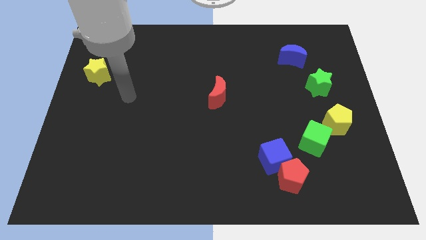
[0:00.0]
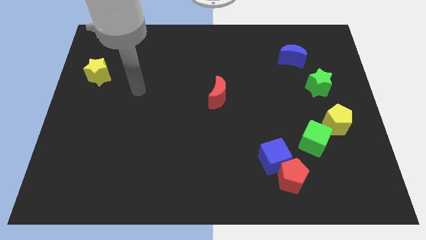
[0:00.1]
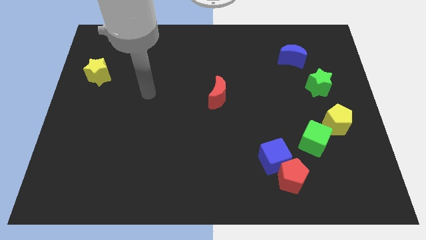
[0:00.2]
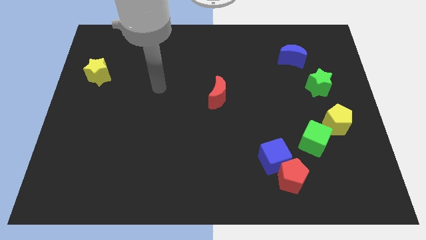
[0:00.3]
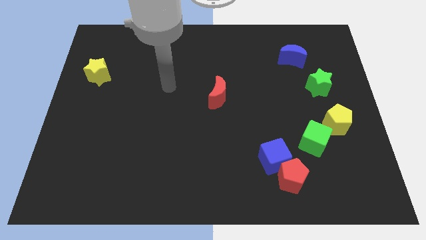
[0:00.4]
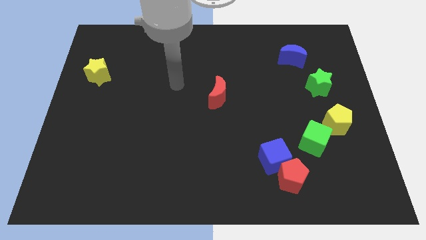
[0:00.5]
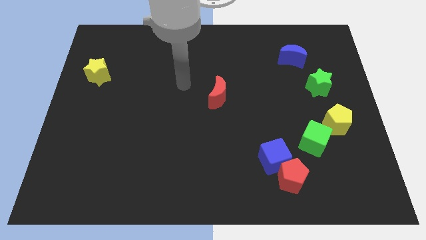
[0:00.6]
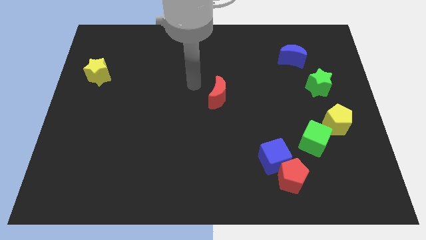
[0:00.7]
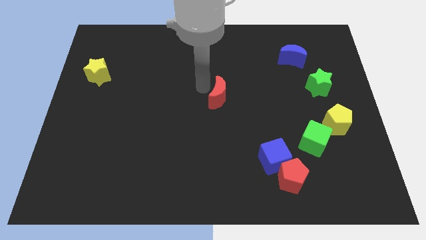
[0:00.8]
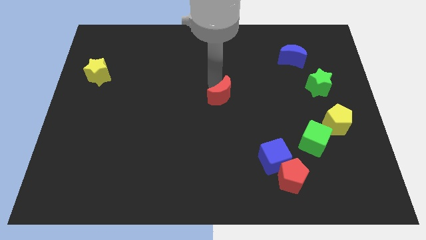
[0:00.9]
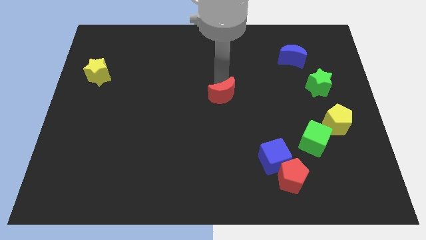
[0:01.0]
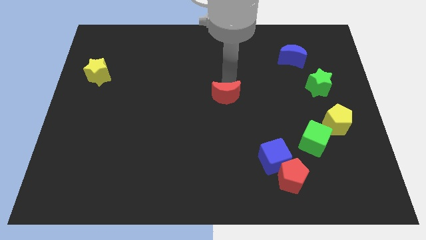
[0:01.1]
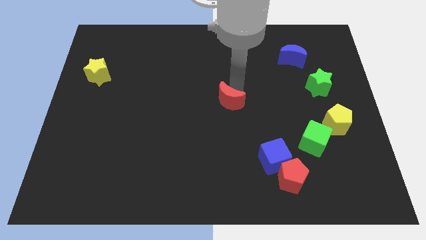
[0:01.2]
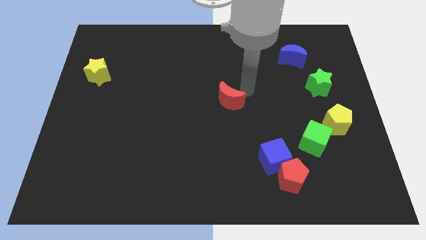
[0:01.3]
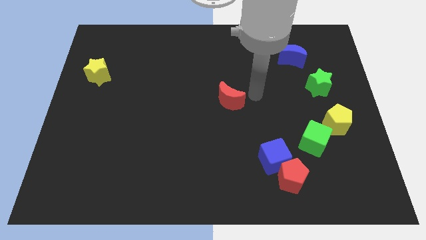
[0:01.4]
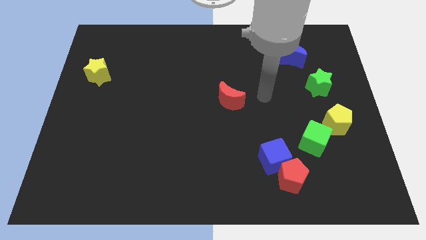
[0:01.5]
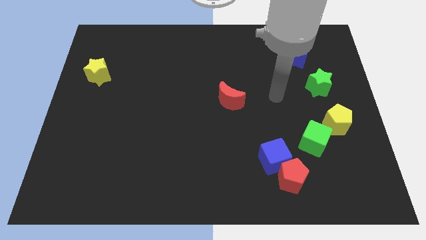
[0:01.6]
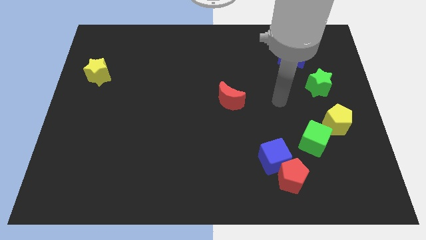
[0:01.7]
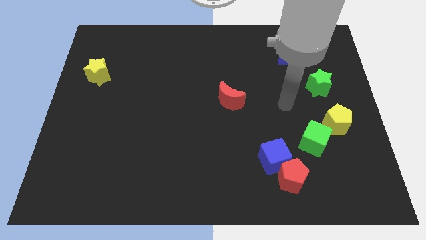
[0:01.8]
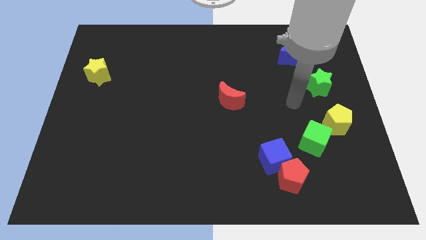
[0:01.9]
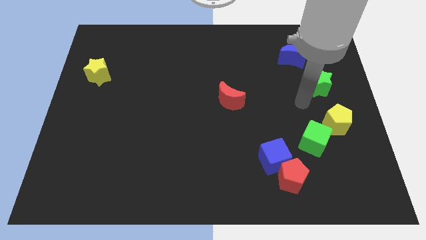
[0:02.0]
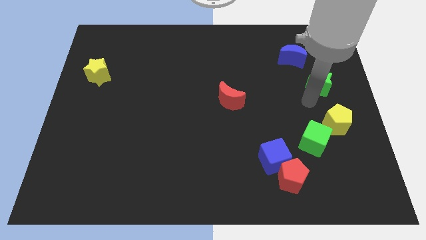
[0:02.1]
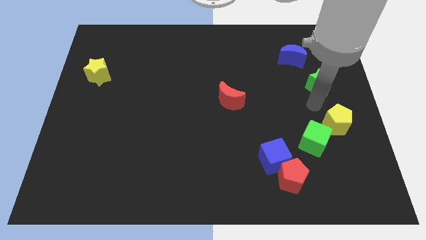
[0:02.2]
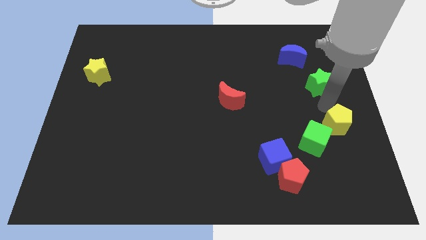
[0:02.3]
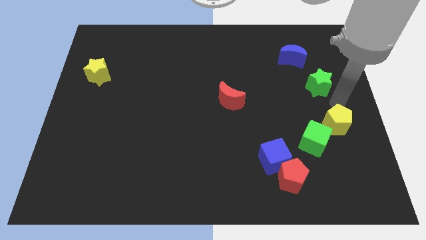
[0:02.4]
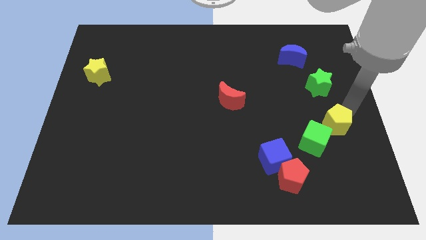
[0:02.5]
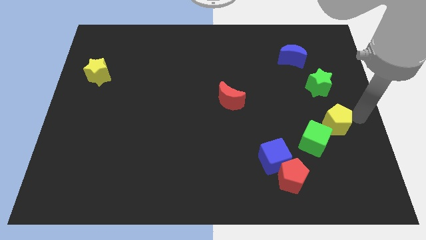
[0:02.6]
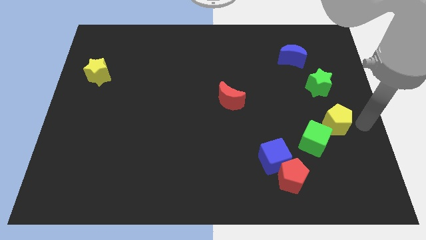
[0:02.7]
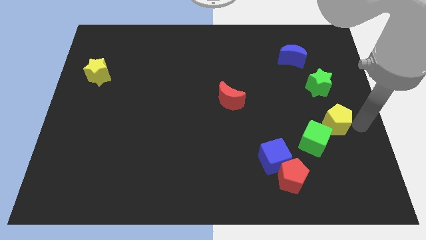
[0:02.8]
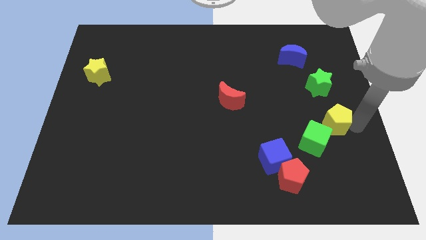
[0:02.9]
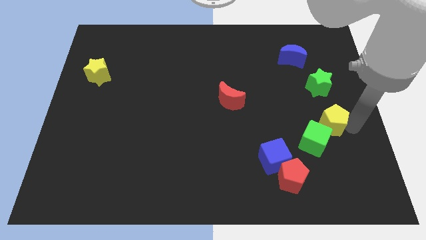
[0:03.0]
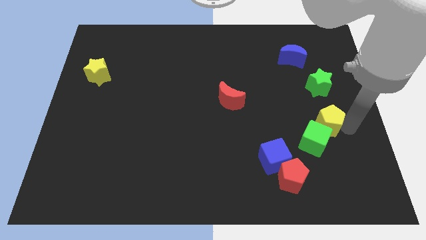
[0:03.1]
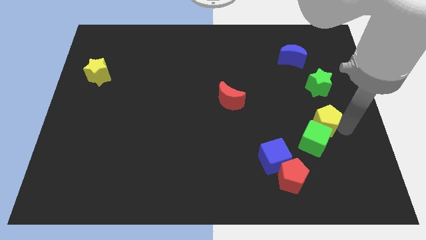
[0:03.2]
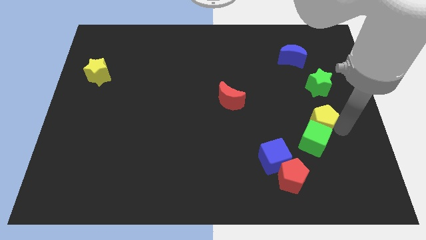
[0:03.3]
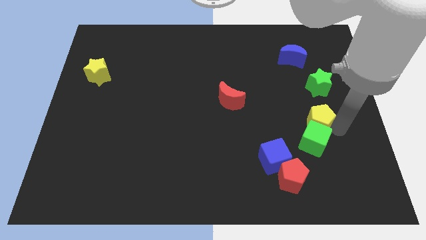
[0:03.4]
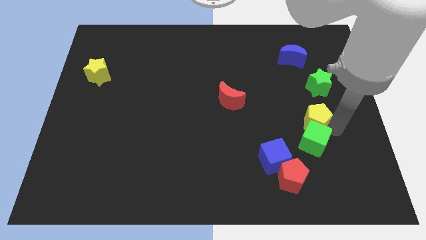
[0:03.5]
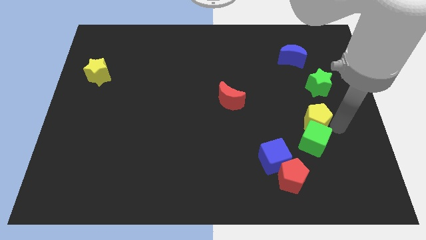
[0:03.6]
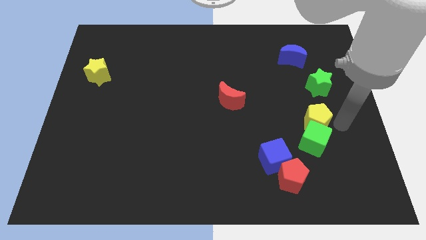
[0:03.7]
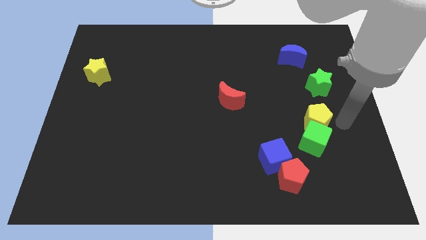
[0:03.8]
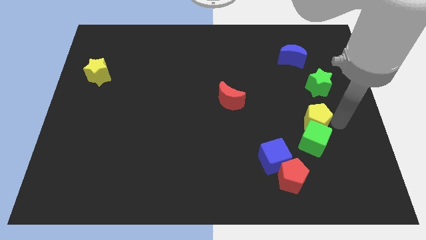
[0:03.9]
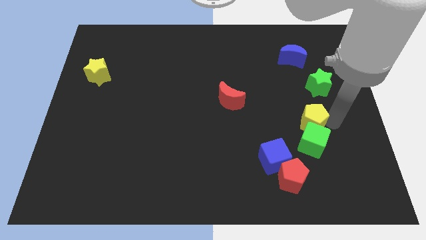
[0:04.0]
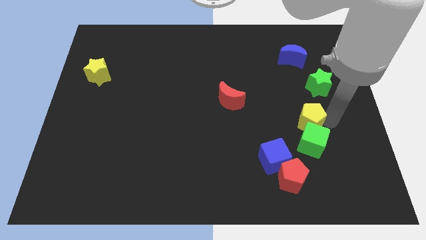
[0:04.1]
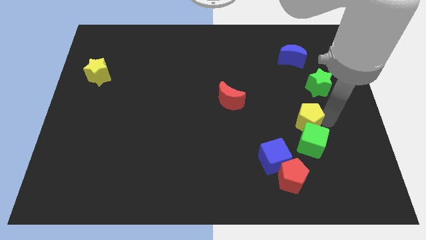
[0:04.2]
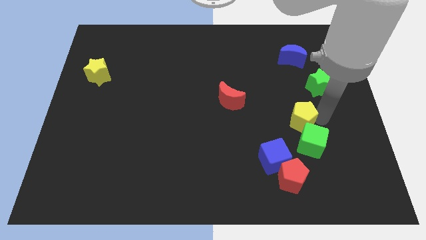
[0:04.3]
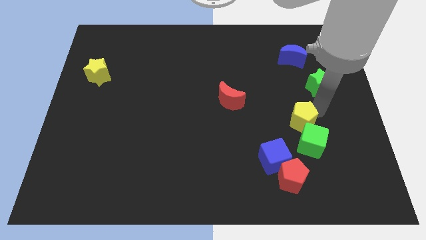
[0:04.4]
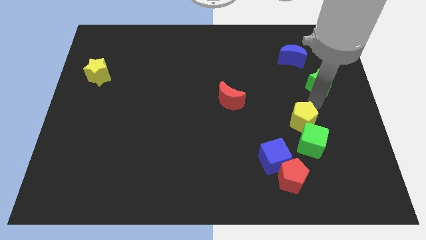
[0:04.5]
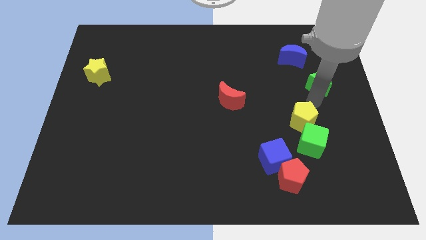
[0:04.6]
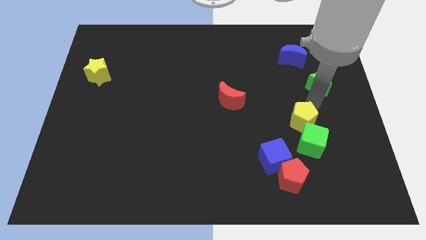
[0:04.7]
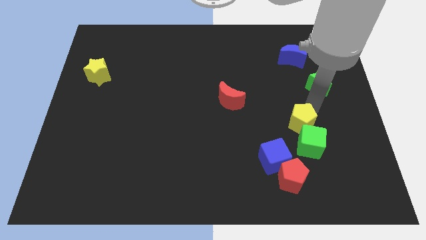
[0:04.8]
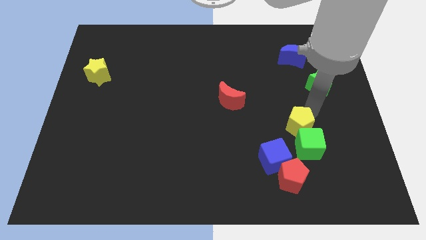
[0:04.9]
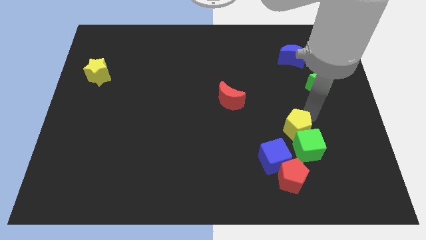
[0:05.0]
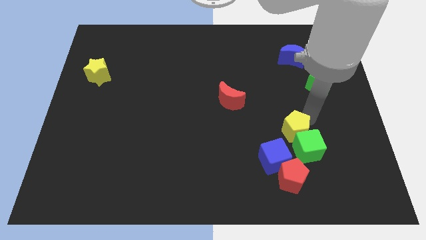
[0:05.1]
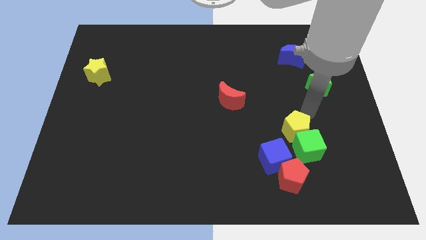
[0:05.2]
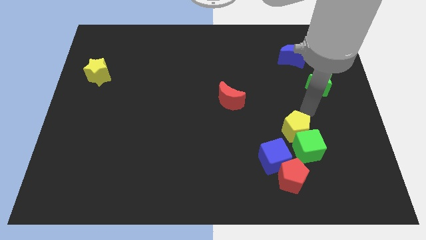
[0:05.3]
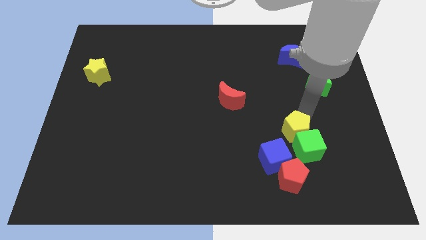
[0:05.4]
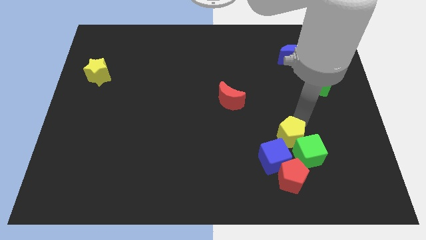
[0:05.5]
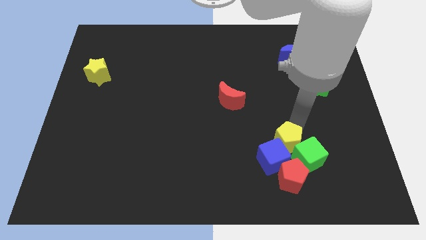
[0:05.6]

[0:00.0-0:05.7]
move the yellow pentagon to the blue cube

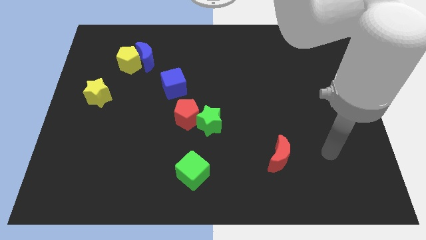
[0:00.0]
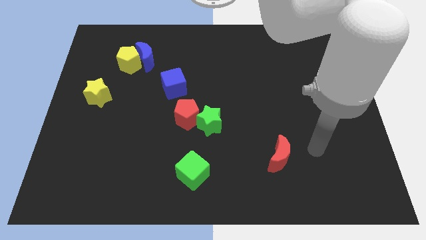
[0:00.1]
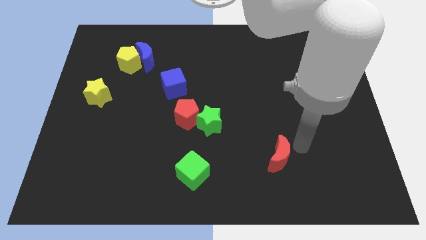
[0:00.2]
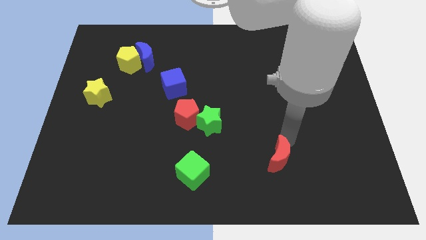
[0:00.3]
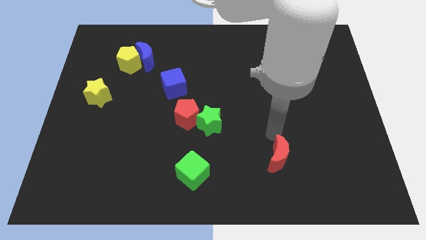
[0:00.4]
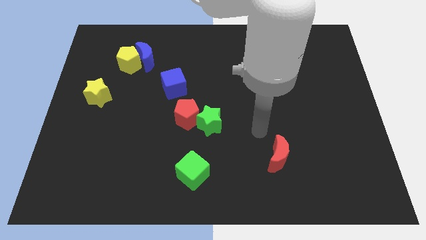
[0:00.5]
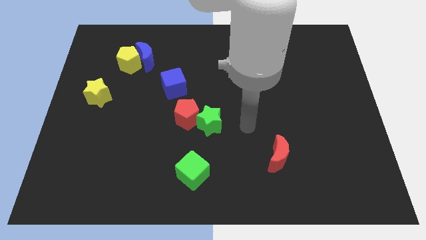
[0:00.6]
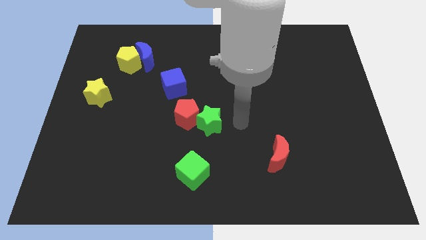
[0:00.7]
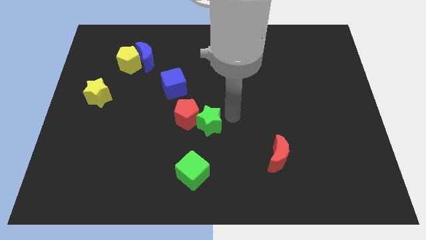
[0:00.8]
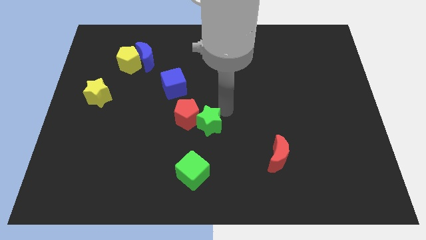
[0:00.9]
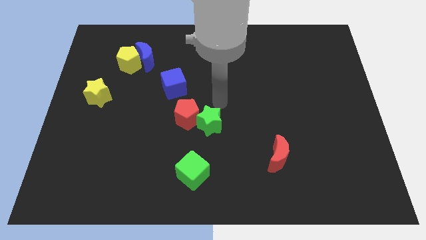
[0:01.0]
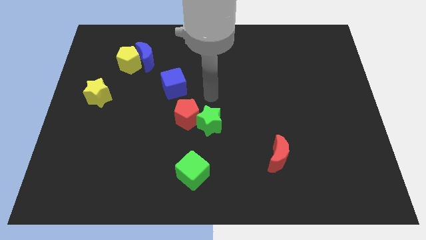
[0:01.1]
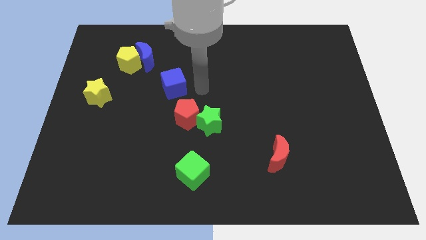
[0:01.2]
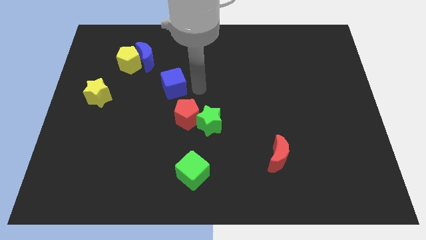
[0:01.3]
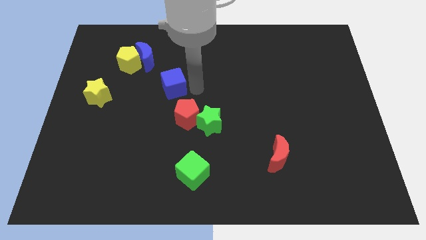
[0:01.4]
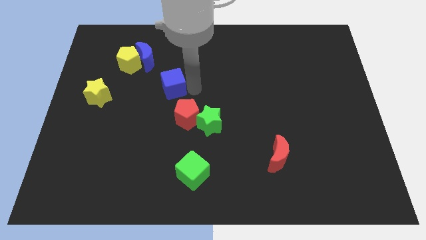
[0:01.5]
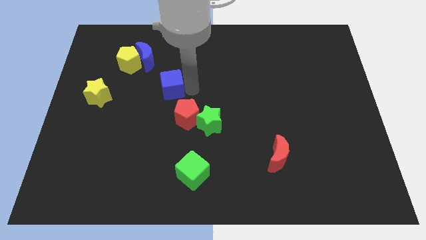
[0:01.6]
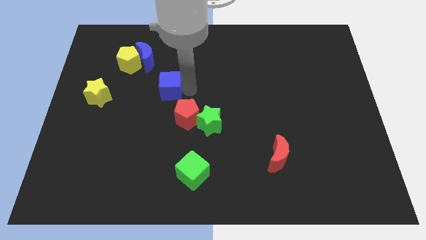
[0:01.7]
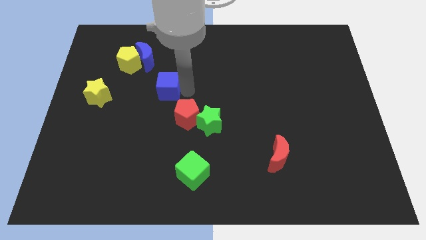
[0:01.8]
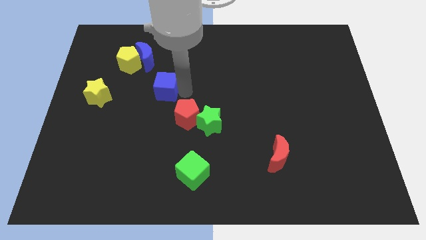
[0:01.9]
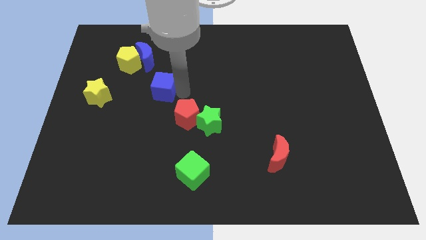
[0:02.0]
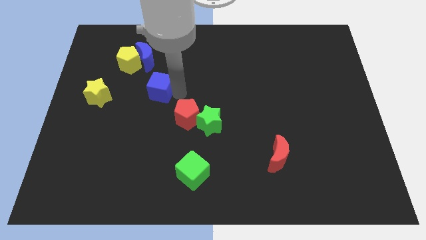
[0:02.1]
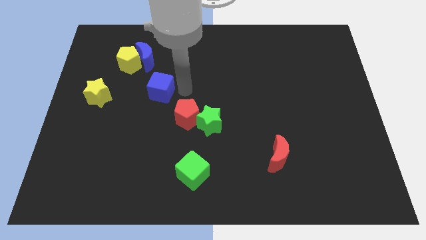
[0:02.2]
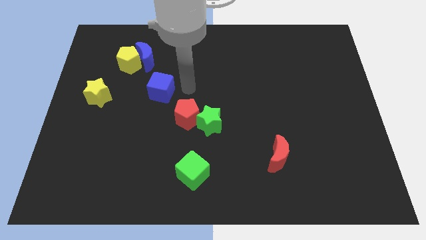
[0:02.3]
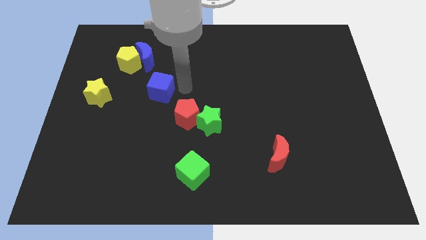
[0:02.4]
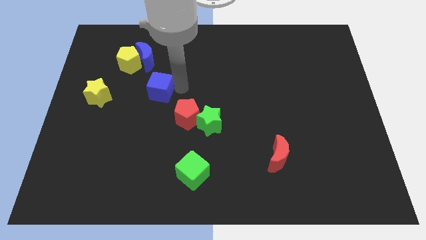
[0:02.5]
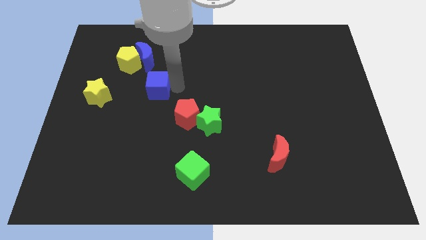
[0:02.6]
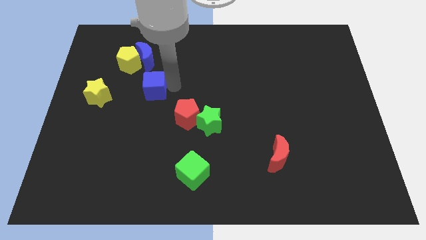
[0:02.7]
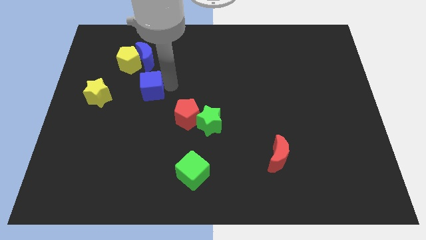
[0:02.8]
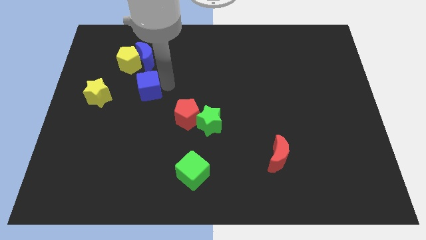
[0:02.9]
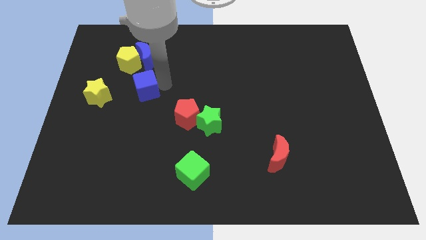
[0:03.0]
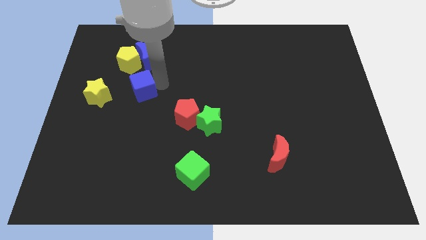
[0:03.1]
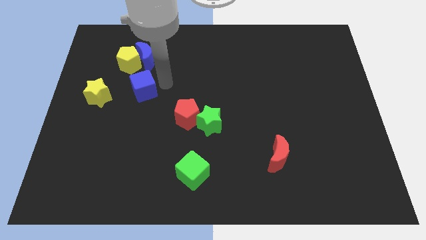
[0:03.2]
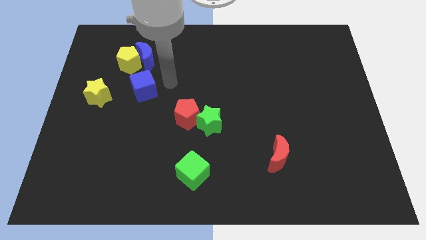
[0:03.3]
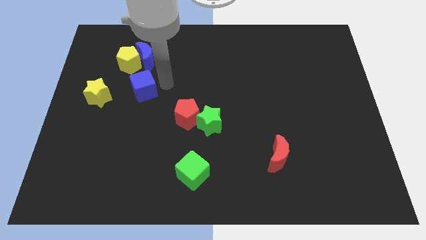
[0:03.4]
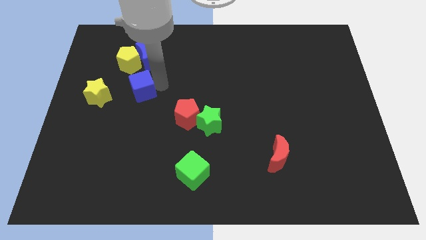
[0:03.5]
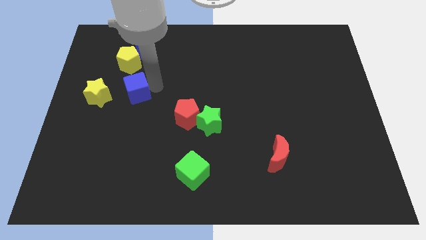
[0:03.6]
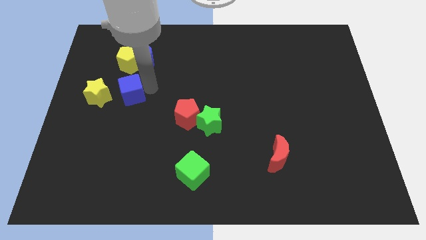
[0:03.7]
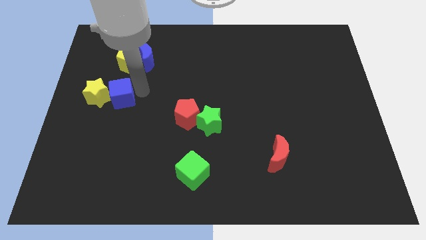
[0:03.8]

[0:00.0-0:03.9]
put the blue cube close to the yellow star
